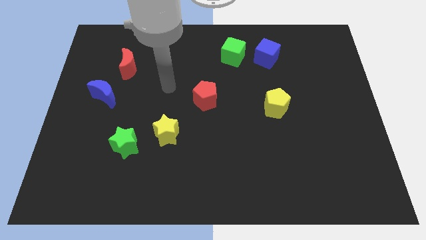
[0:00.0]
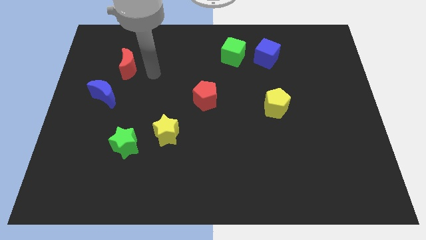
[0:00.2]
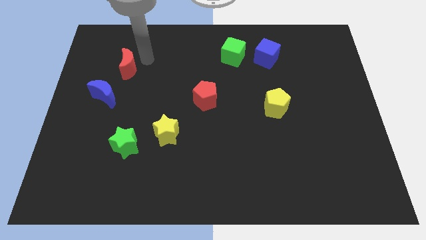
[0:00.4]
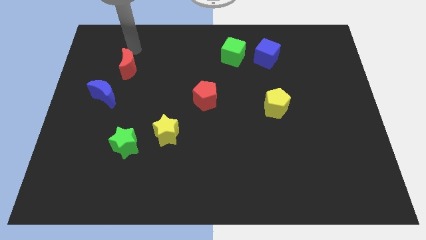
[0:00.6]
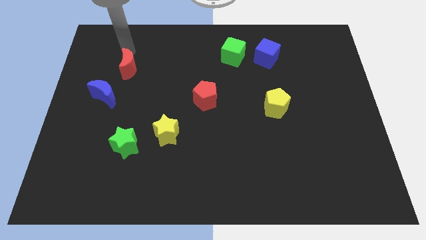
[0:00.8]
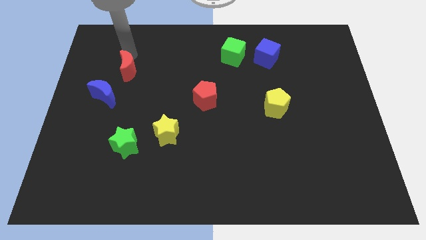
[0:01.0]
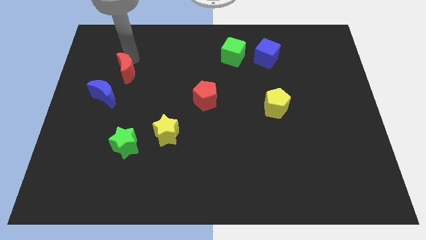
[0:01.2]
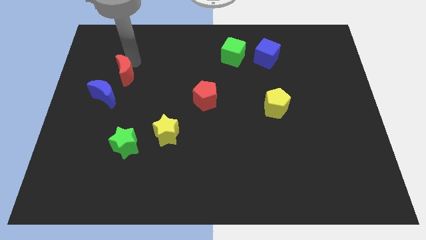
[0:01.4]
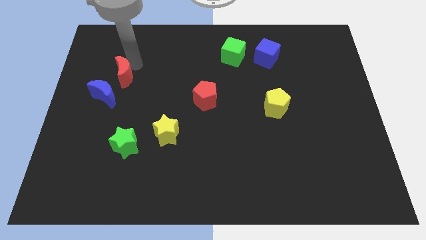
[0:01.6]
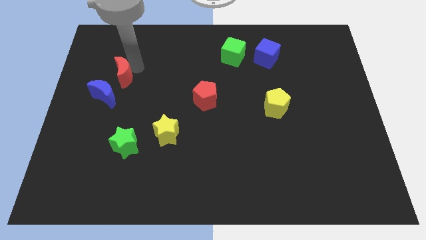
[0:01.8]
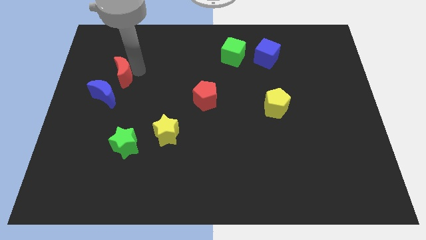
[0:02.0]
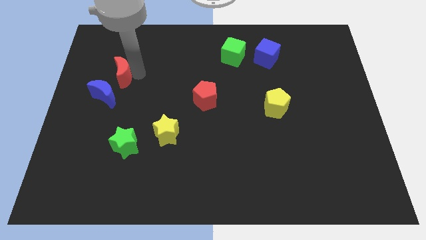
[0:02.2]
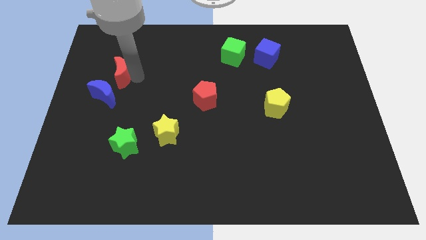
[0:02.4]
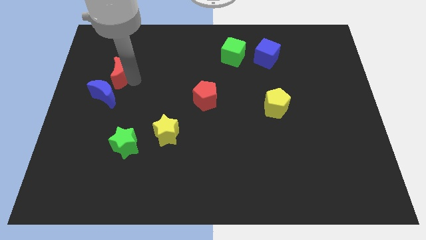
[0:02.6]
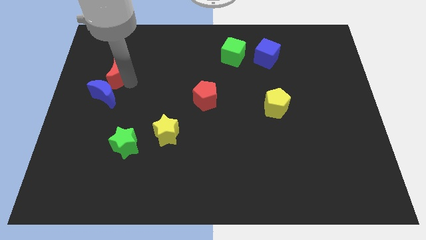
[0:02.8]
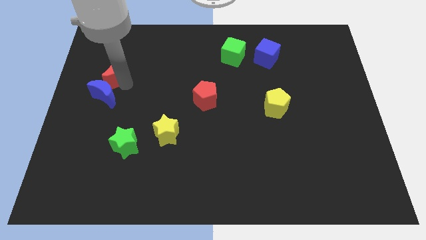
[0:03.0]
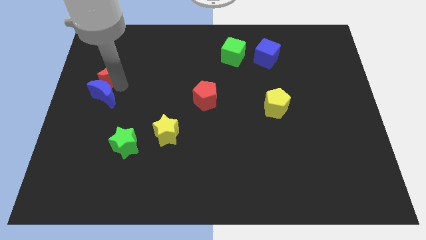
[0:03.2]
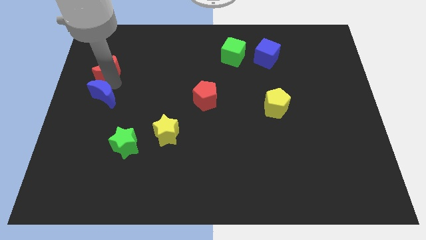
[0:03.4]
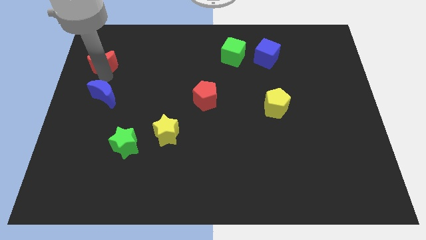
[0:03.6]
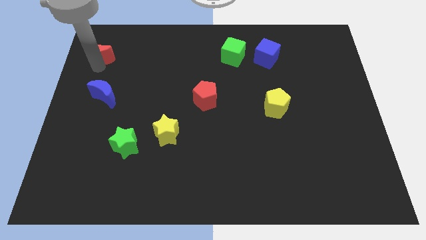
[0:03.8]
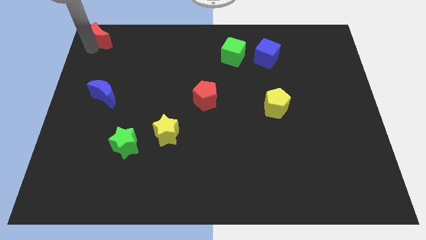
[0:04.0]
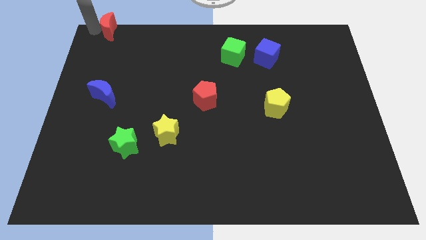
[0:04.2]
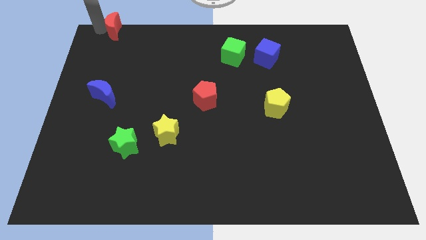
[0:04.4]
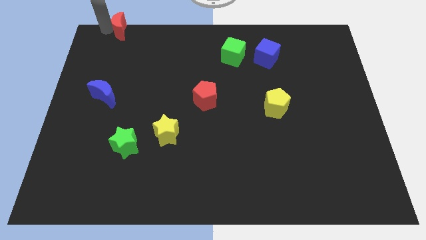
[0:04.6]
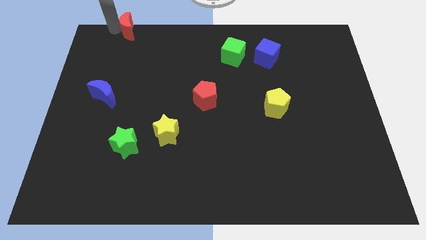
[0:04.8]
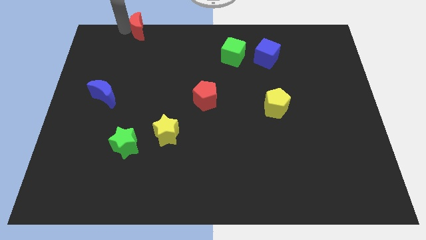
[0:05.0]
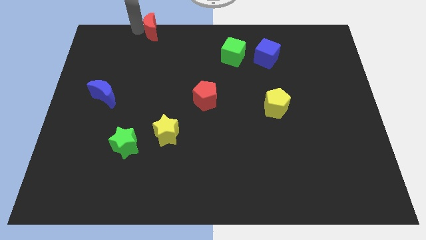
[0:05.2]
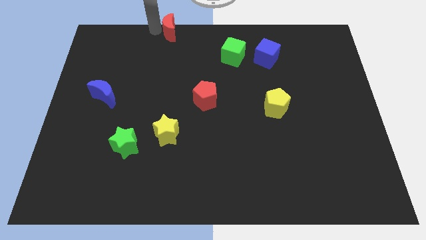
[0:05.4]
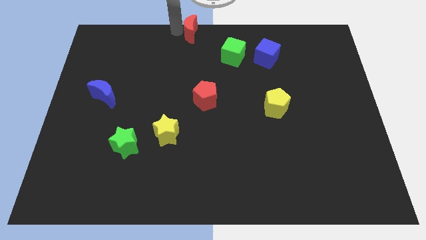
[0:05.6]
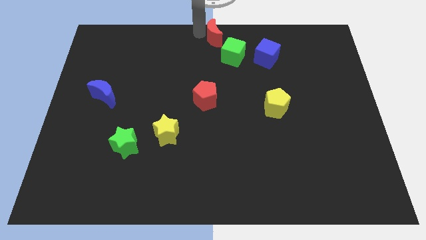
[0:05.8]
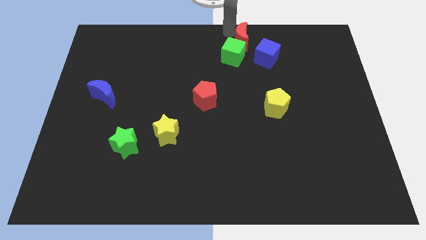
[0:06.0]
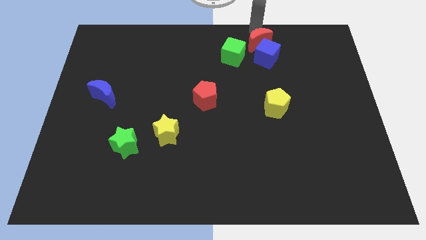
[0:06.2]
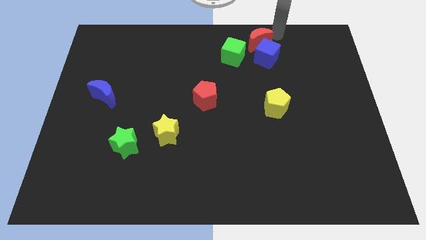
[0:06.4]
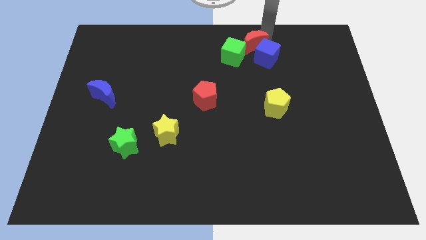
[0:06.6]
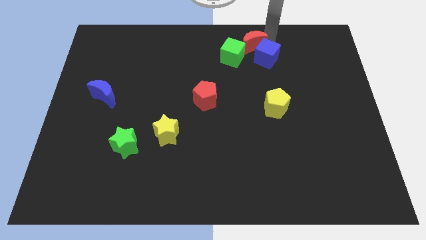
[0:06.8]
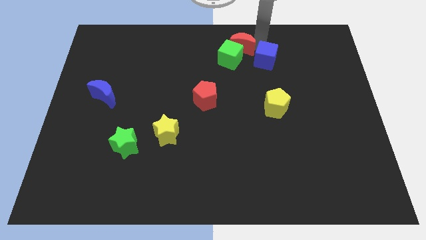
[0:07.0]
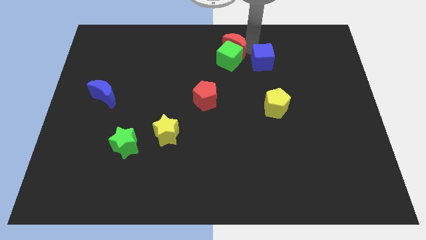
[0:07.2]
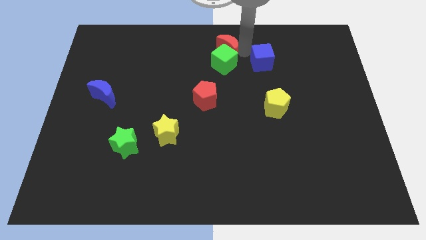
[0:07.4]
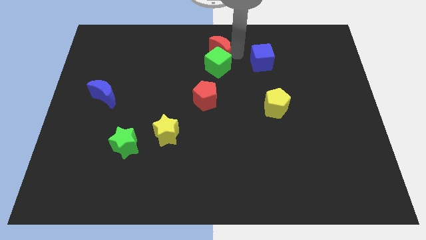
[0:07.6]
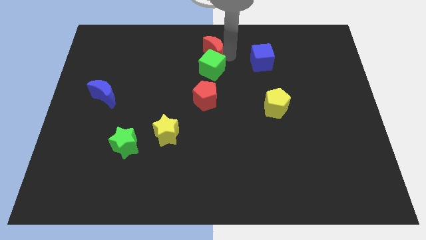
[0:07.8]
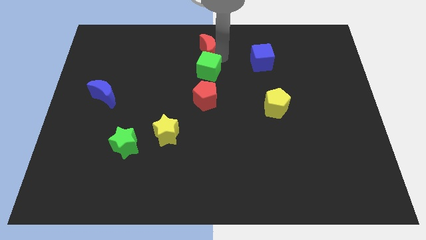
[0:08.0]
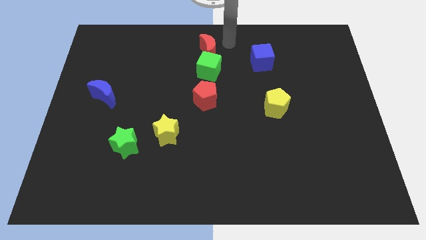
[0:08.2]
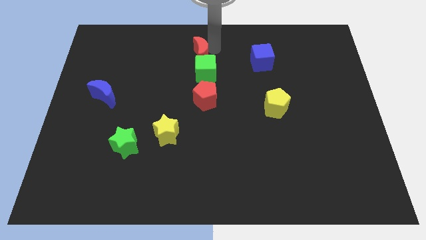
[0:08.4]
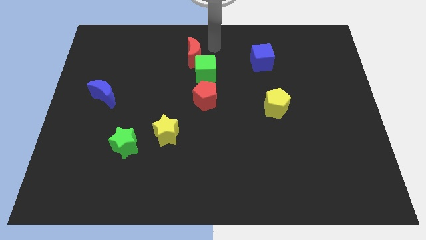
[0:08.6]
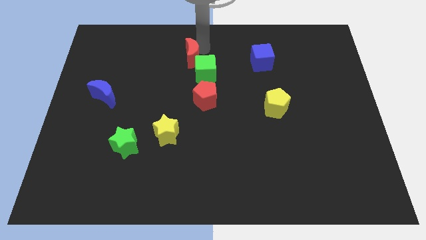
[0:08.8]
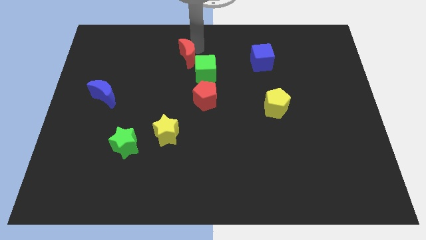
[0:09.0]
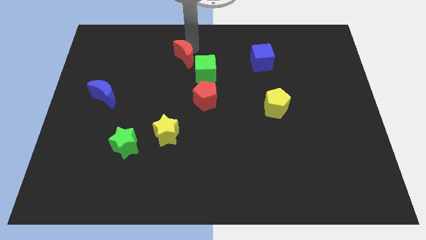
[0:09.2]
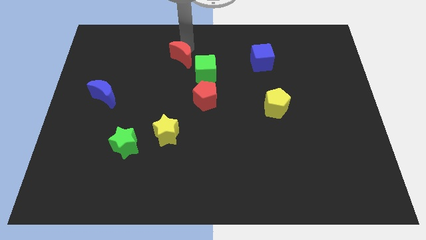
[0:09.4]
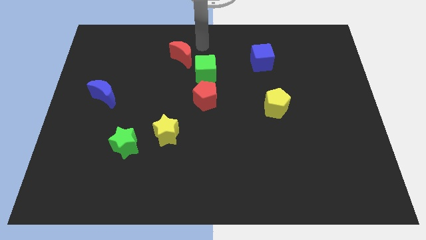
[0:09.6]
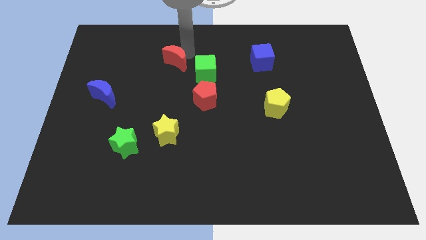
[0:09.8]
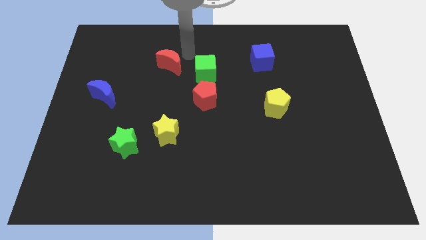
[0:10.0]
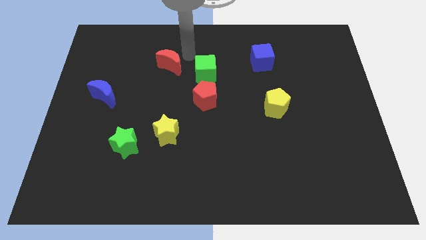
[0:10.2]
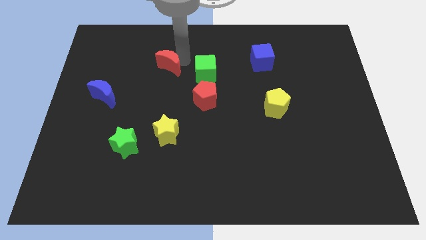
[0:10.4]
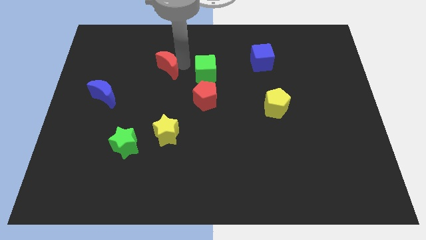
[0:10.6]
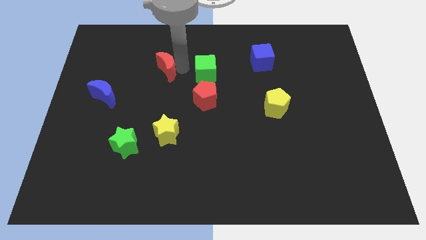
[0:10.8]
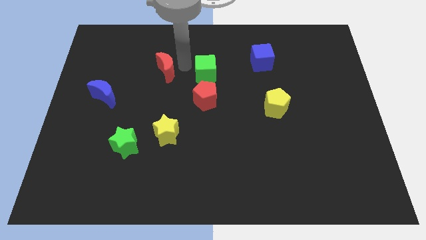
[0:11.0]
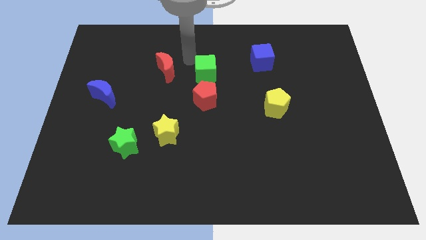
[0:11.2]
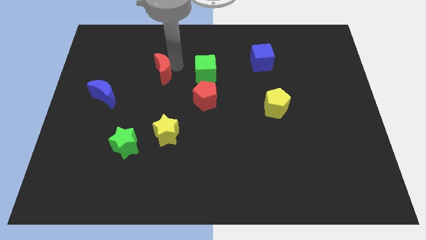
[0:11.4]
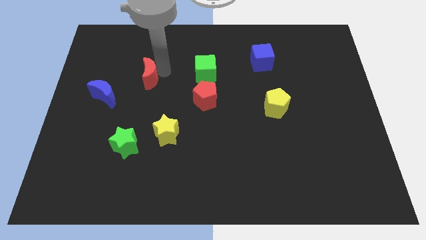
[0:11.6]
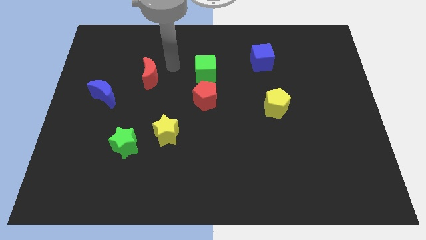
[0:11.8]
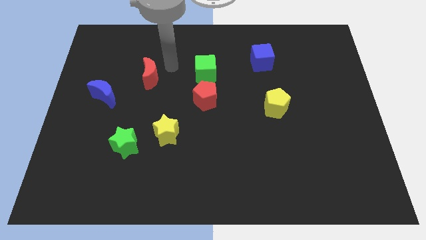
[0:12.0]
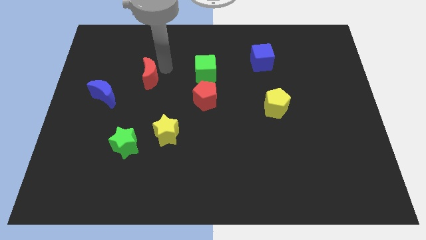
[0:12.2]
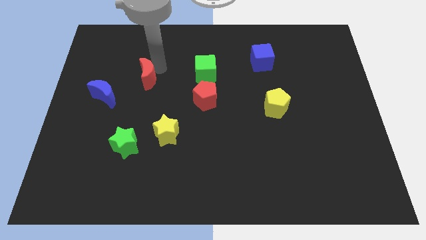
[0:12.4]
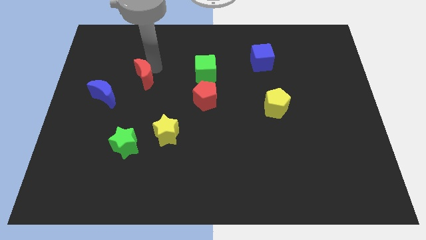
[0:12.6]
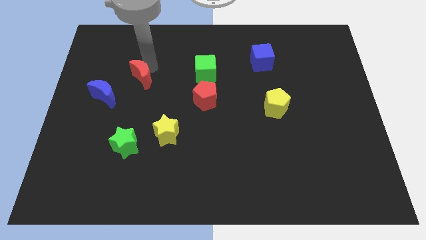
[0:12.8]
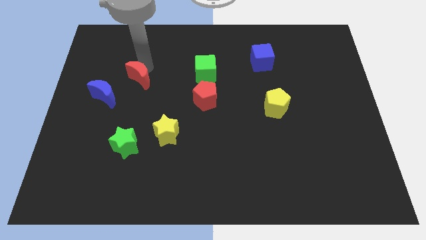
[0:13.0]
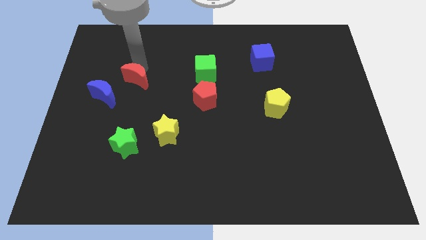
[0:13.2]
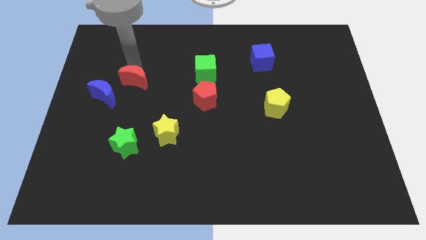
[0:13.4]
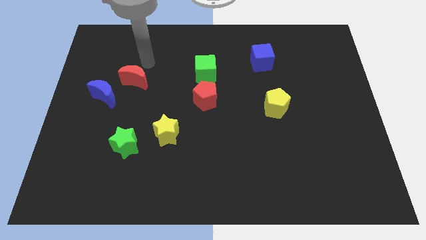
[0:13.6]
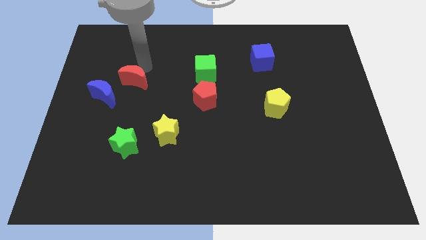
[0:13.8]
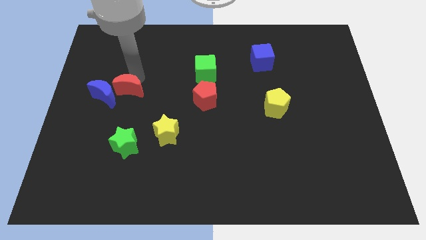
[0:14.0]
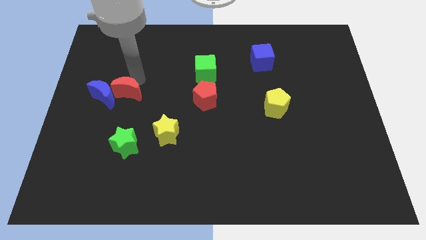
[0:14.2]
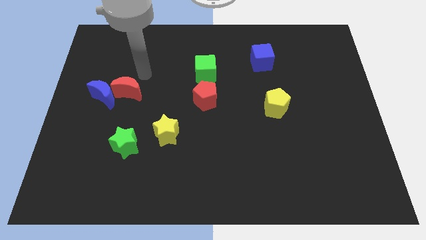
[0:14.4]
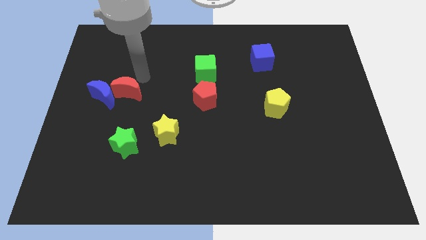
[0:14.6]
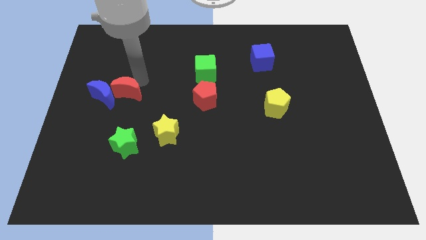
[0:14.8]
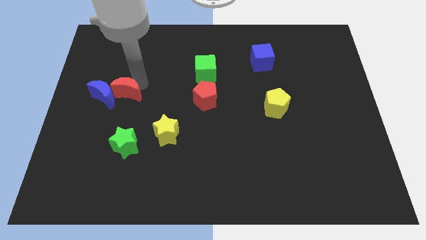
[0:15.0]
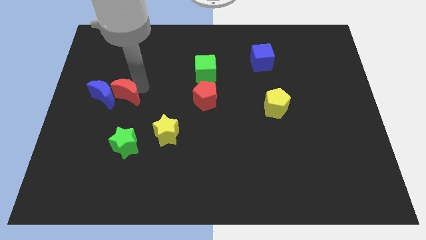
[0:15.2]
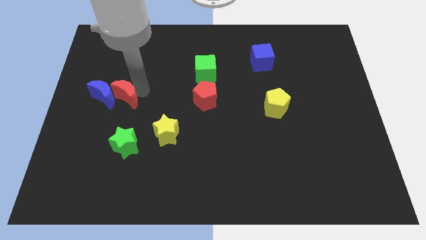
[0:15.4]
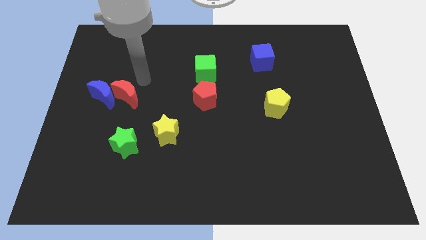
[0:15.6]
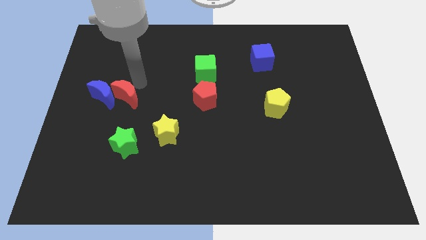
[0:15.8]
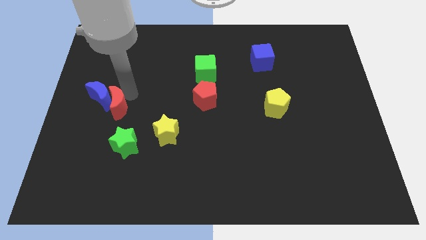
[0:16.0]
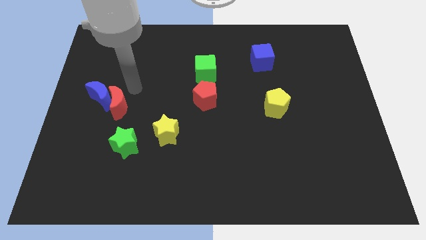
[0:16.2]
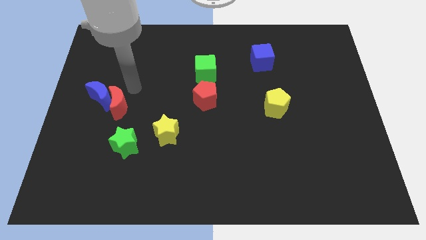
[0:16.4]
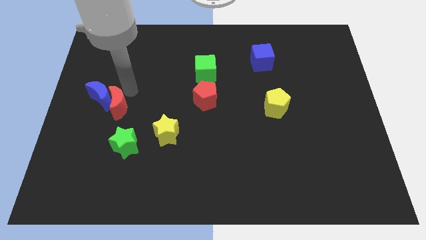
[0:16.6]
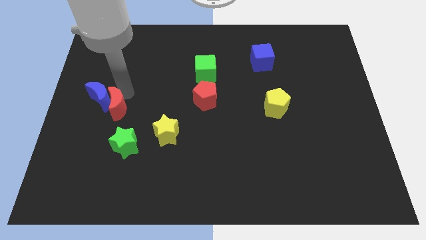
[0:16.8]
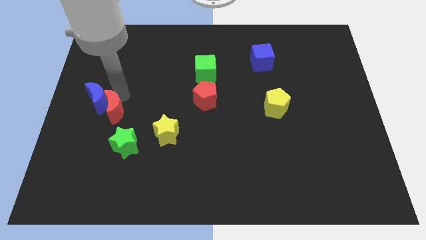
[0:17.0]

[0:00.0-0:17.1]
move the red moon to the bottom side of the blue moon
